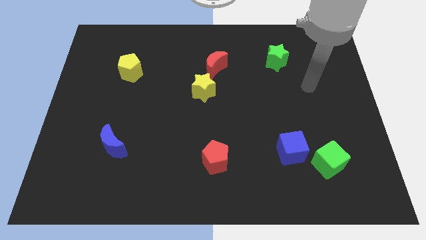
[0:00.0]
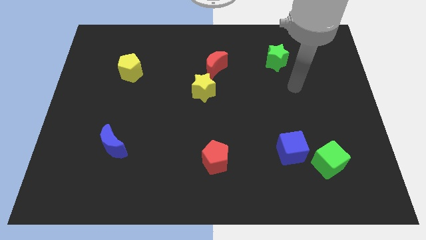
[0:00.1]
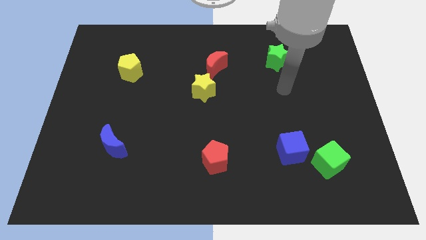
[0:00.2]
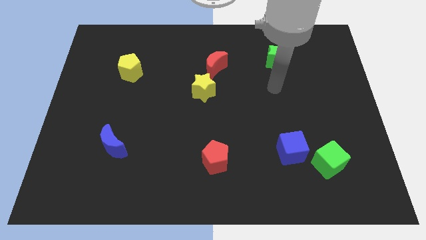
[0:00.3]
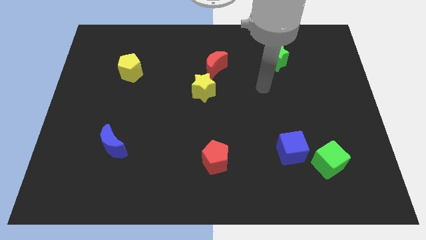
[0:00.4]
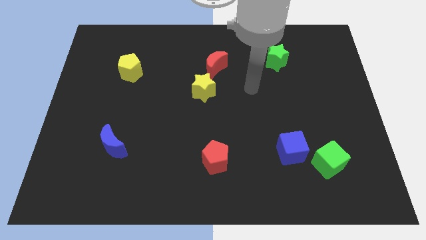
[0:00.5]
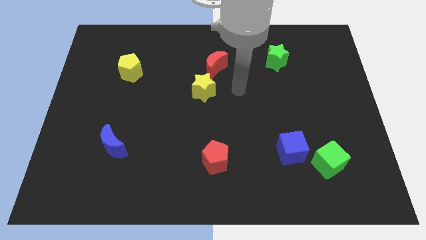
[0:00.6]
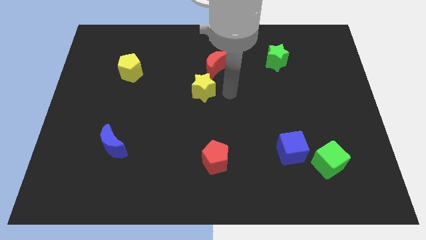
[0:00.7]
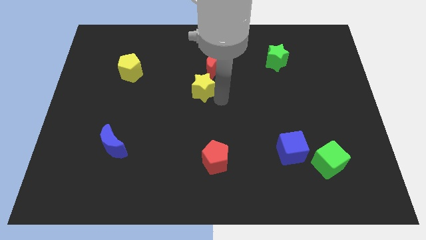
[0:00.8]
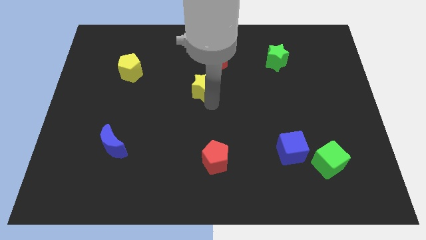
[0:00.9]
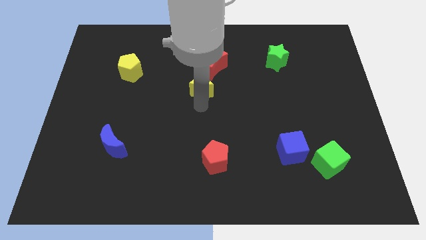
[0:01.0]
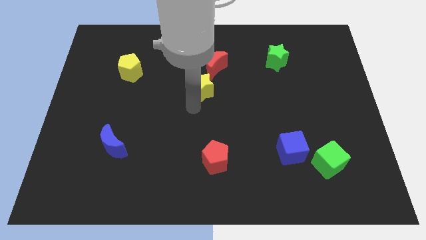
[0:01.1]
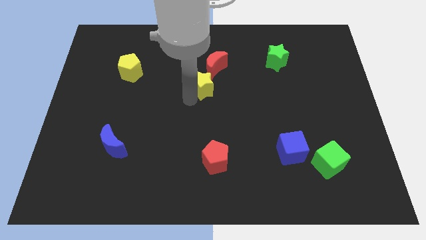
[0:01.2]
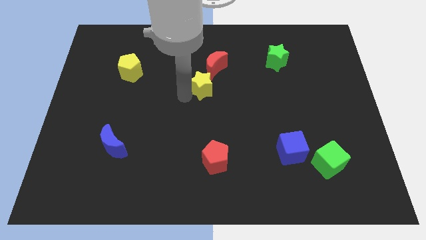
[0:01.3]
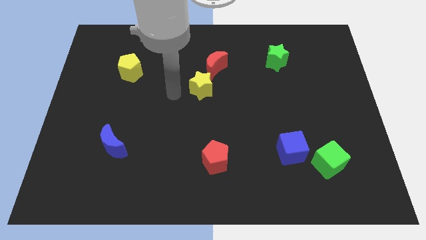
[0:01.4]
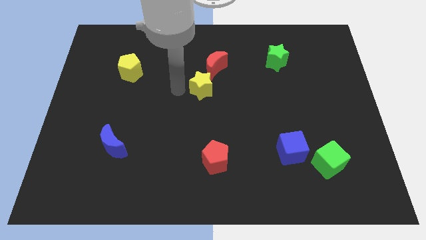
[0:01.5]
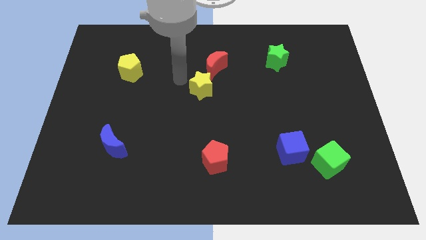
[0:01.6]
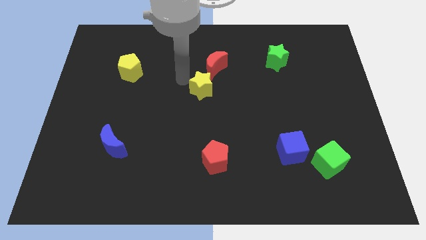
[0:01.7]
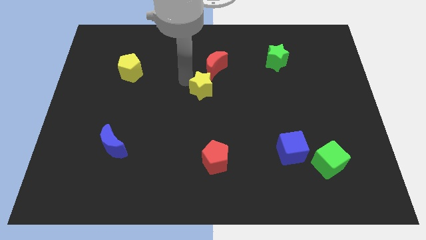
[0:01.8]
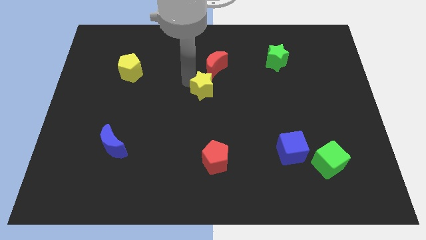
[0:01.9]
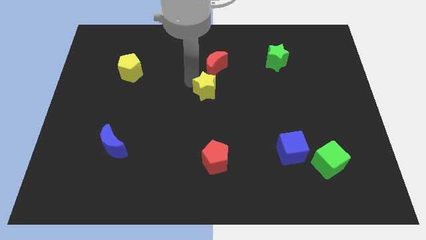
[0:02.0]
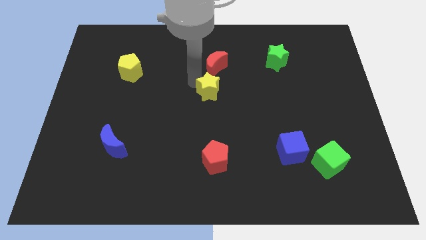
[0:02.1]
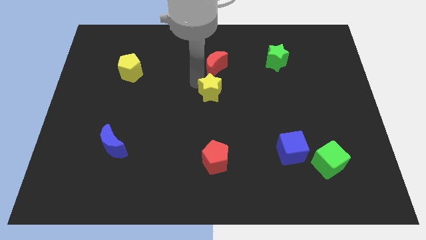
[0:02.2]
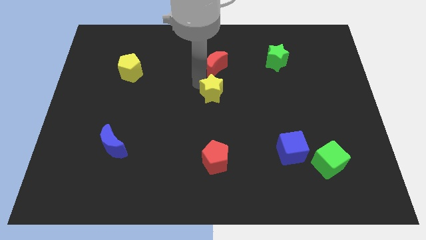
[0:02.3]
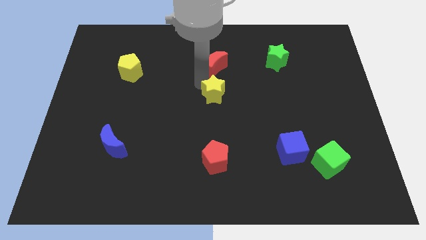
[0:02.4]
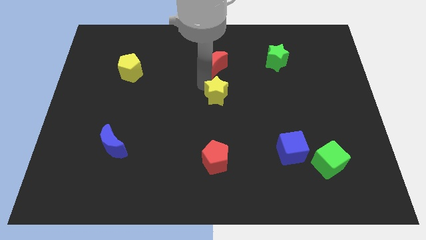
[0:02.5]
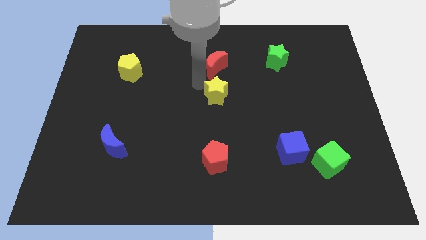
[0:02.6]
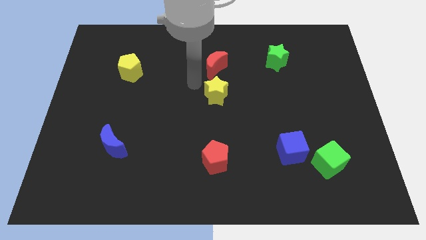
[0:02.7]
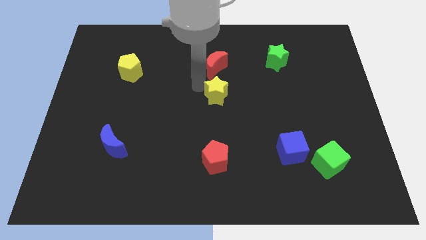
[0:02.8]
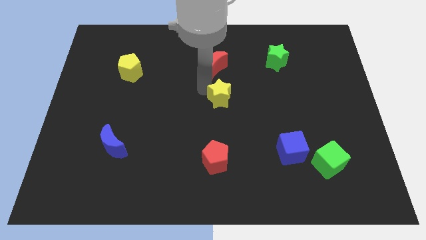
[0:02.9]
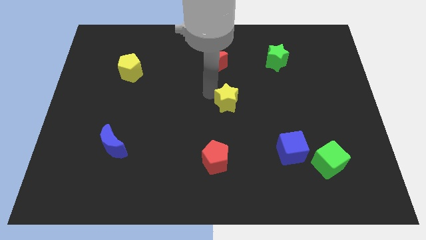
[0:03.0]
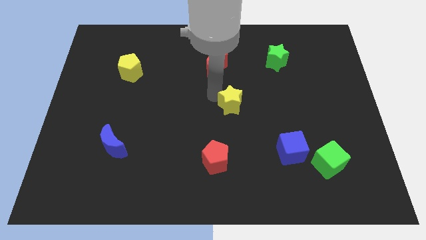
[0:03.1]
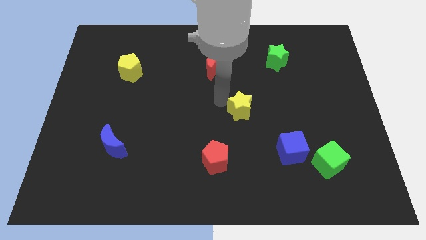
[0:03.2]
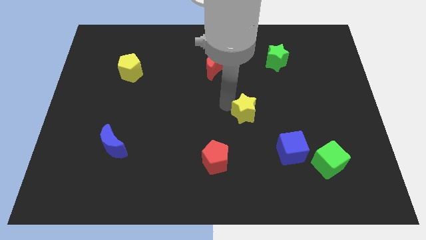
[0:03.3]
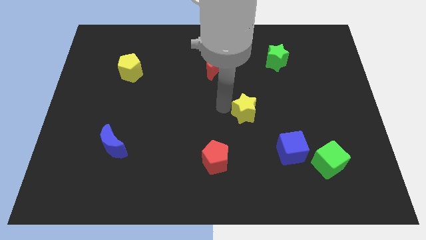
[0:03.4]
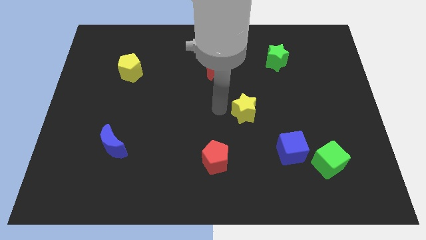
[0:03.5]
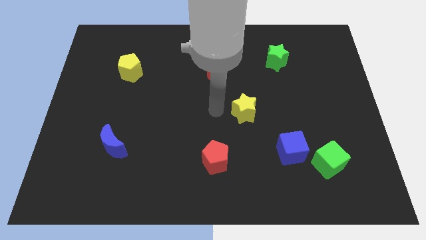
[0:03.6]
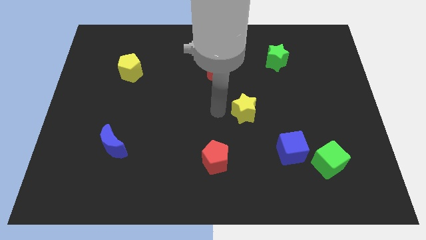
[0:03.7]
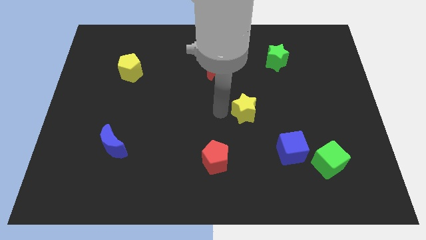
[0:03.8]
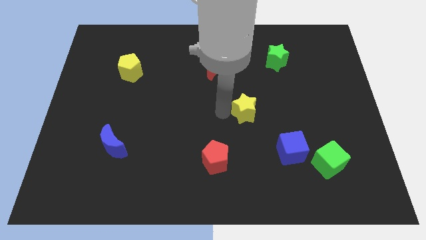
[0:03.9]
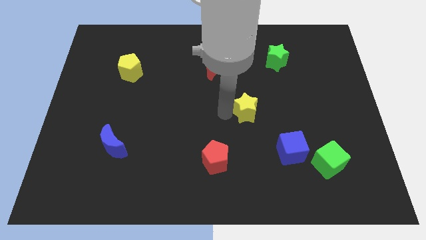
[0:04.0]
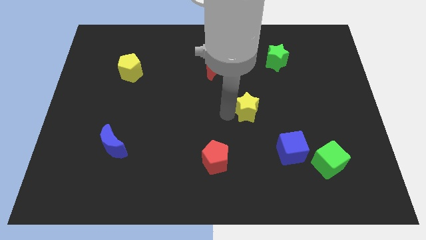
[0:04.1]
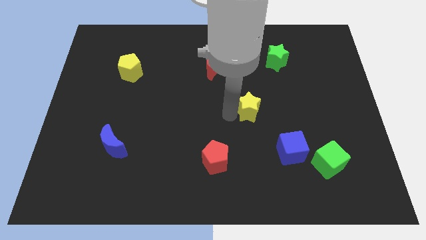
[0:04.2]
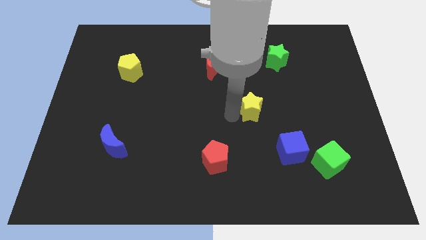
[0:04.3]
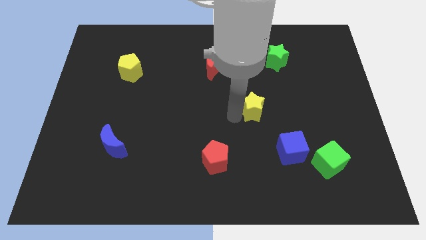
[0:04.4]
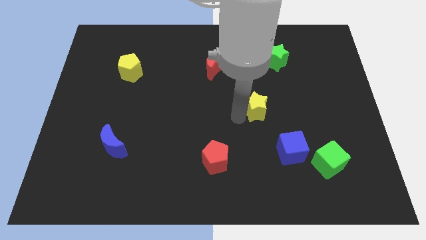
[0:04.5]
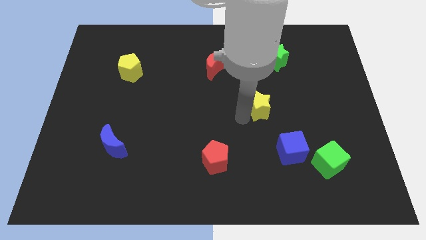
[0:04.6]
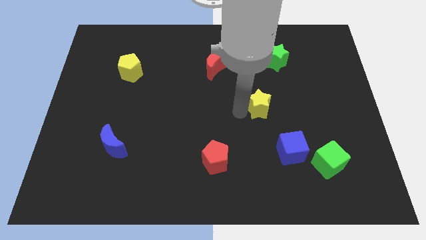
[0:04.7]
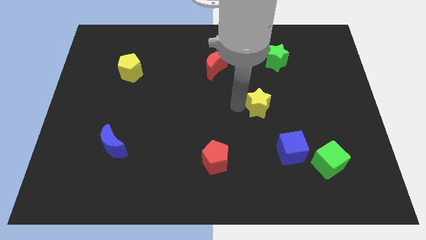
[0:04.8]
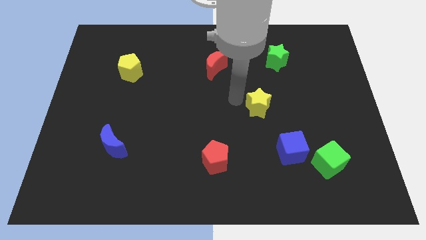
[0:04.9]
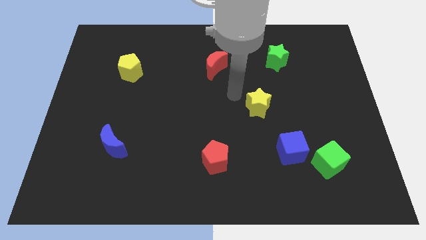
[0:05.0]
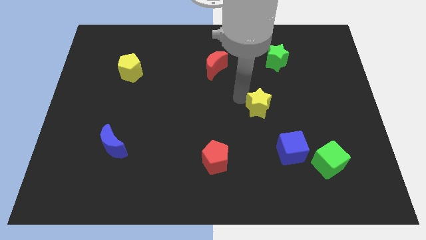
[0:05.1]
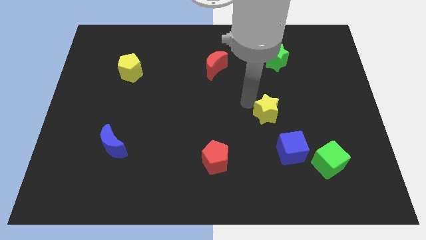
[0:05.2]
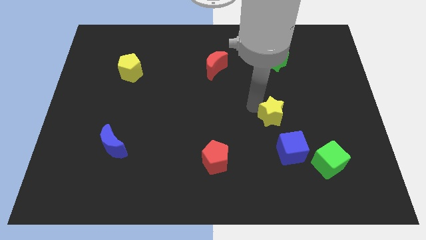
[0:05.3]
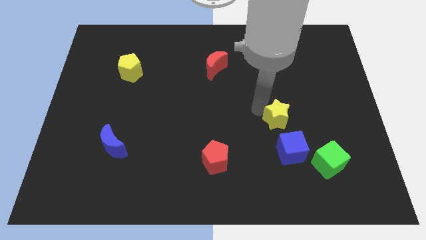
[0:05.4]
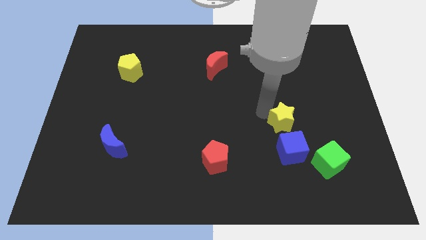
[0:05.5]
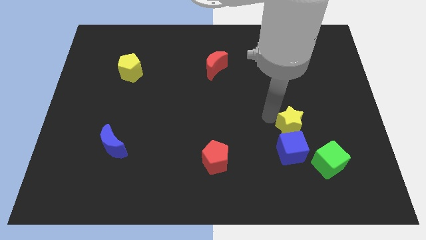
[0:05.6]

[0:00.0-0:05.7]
put the yellow star diagonally up and to the right of the blue cube

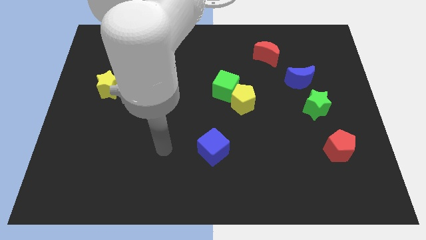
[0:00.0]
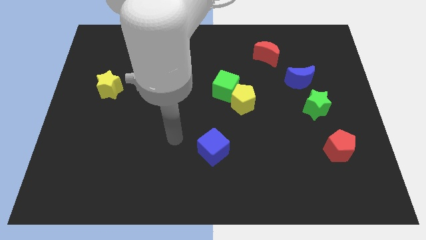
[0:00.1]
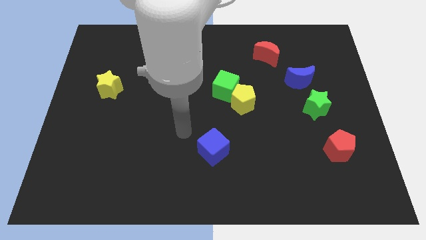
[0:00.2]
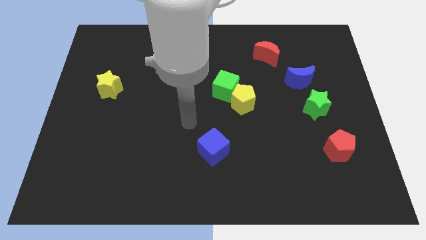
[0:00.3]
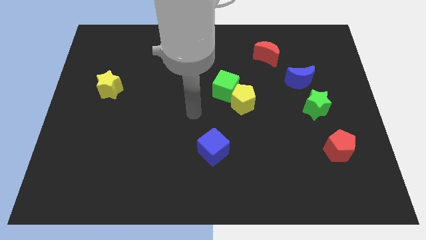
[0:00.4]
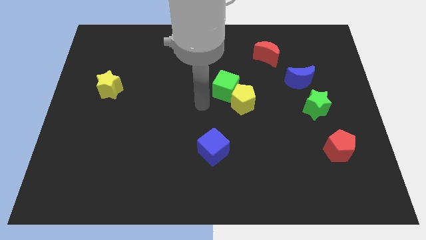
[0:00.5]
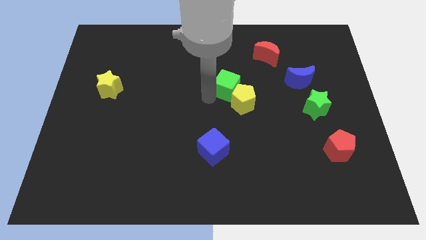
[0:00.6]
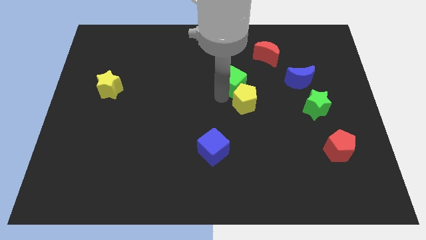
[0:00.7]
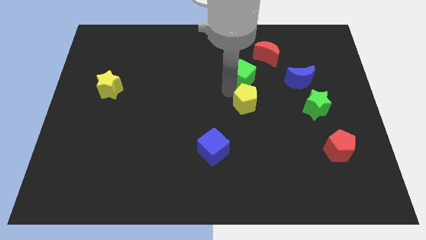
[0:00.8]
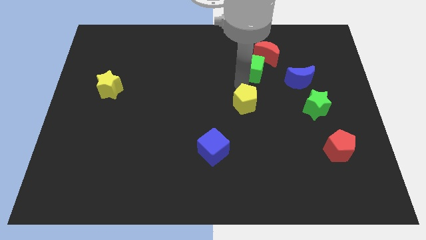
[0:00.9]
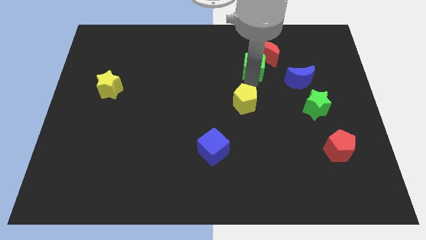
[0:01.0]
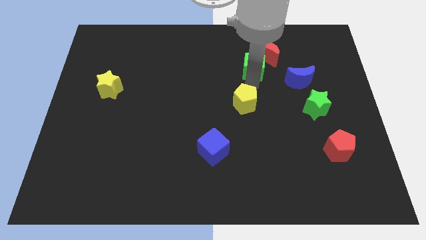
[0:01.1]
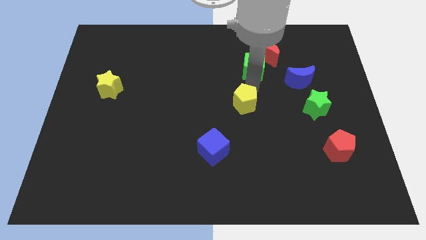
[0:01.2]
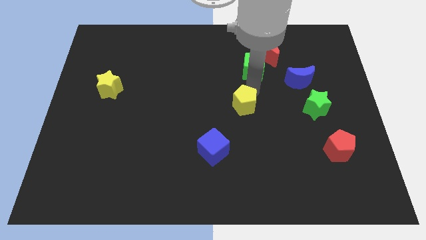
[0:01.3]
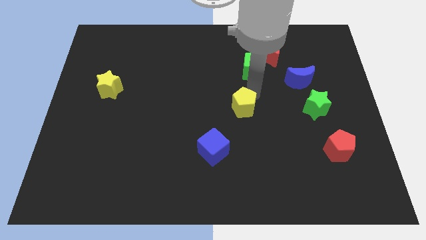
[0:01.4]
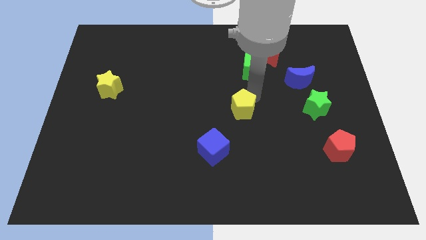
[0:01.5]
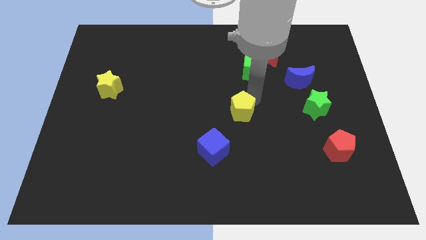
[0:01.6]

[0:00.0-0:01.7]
slide the yellow pentagon diagonally up and to the right of the blue cube
